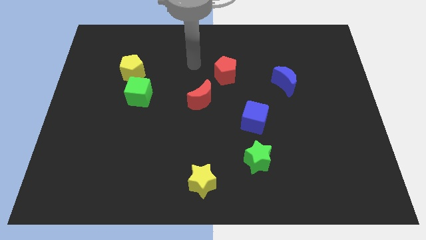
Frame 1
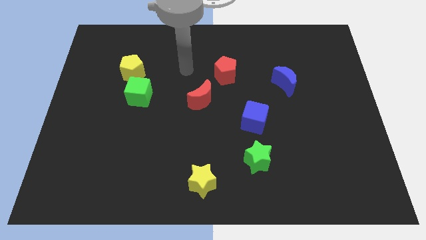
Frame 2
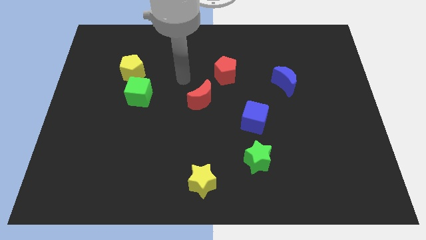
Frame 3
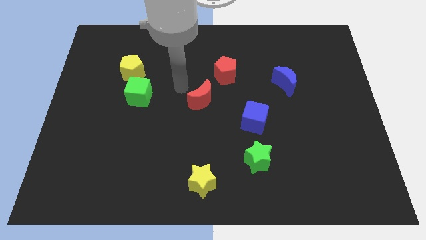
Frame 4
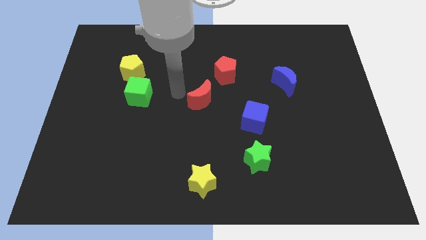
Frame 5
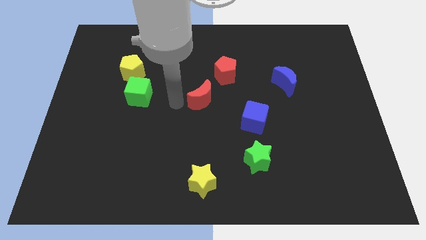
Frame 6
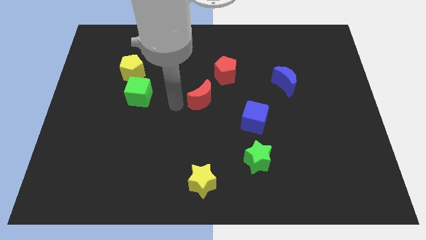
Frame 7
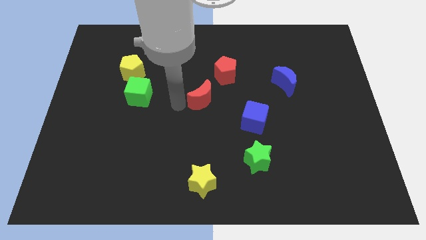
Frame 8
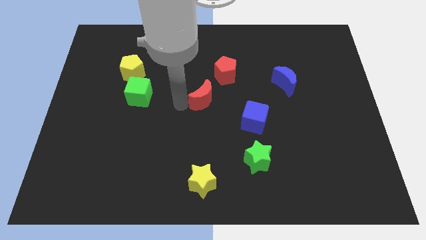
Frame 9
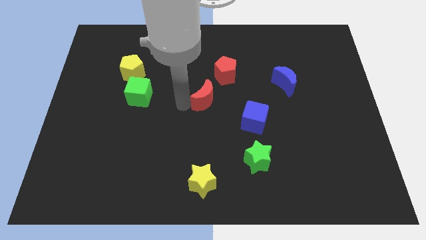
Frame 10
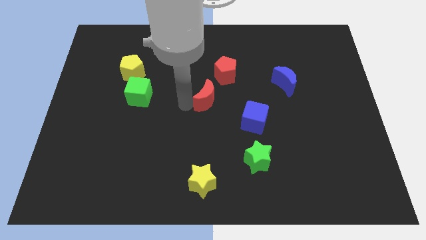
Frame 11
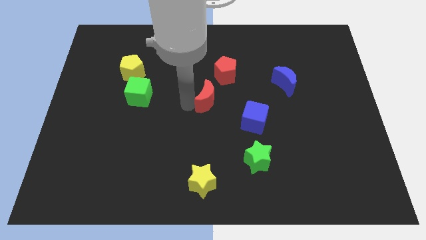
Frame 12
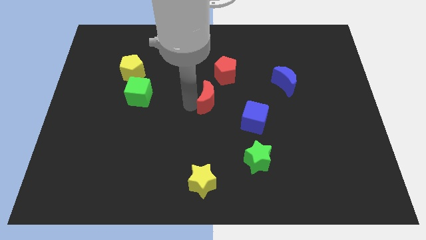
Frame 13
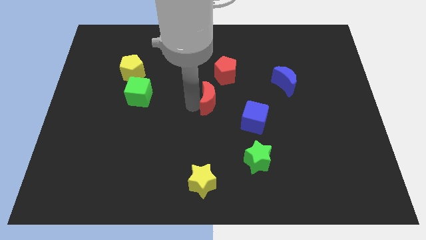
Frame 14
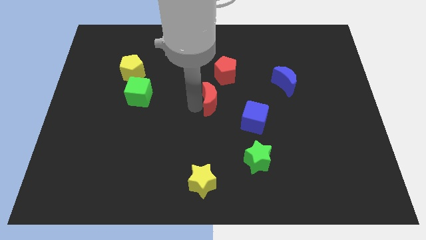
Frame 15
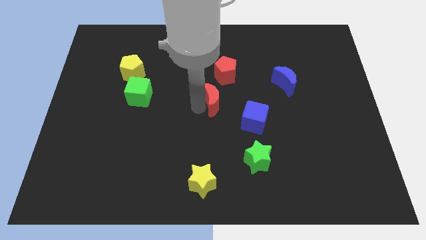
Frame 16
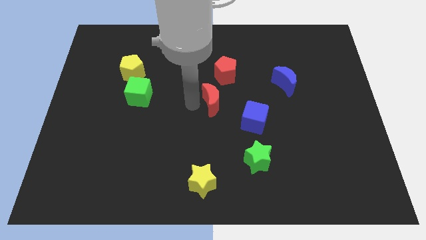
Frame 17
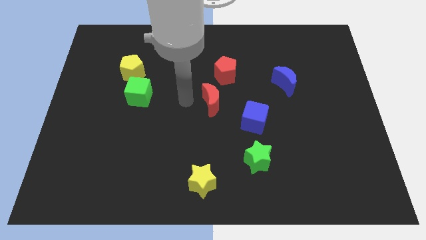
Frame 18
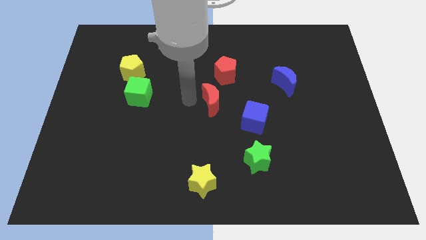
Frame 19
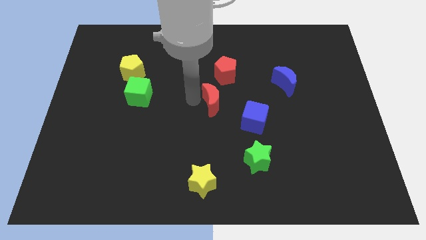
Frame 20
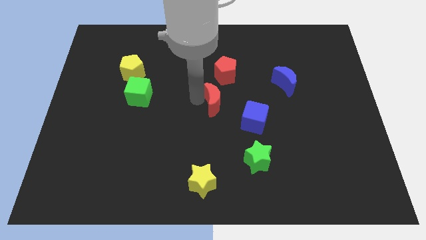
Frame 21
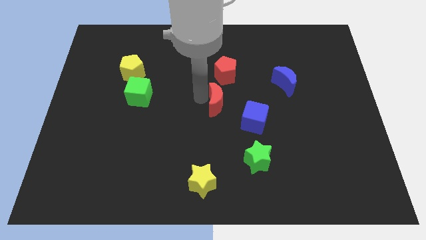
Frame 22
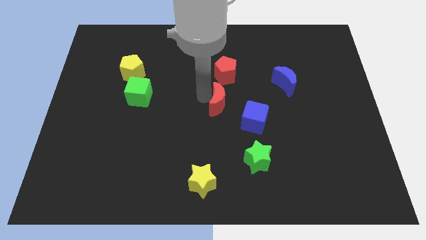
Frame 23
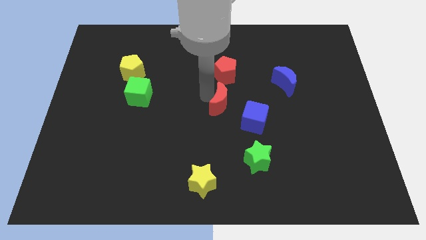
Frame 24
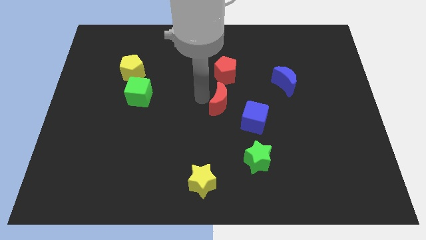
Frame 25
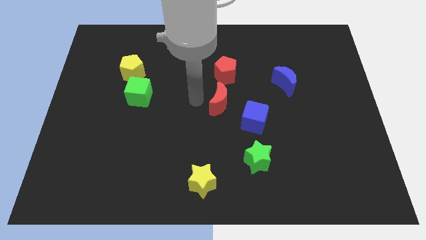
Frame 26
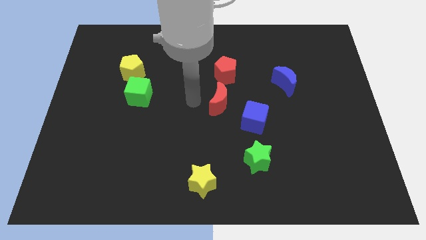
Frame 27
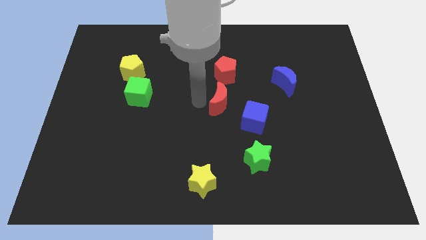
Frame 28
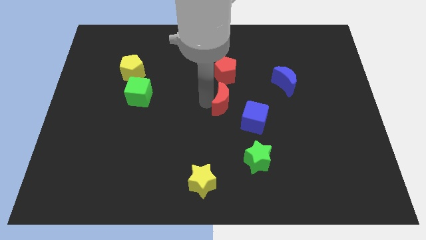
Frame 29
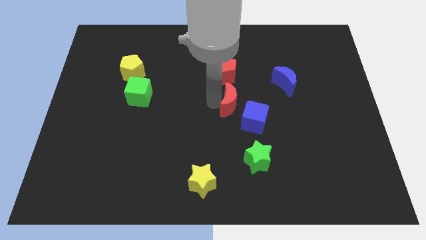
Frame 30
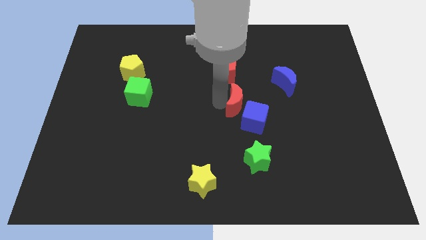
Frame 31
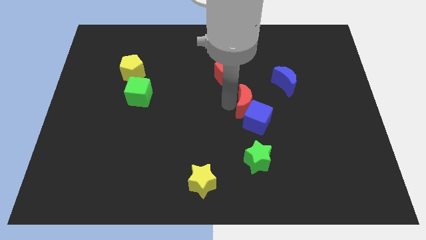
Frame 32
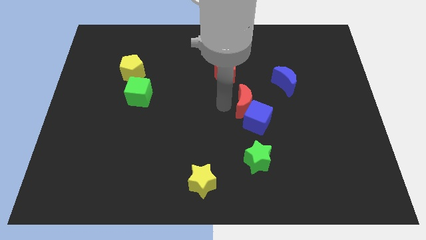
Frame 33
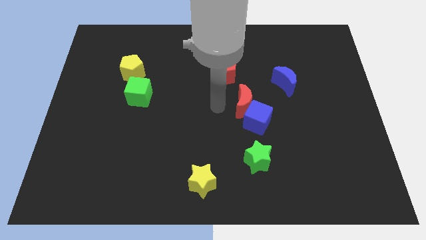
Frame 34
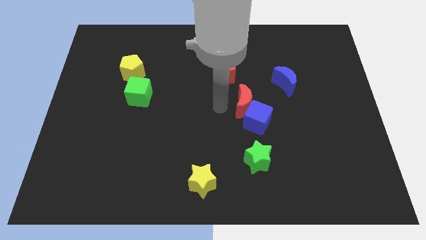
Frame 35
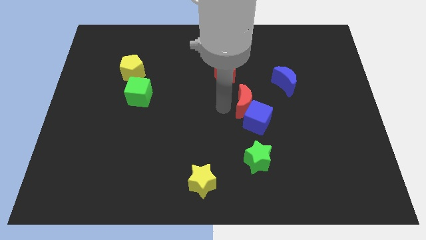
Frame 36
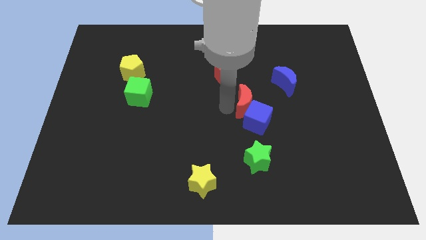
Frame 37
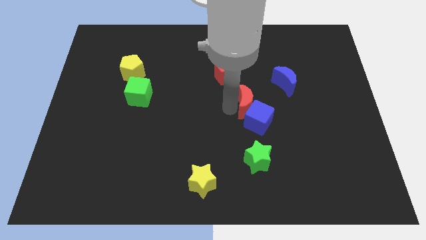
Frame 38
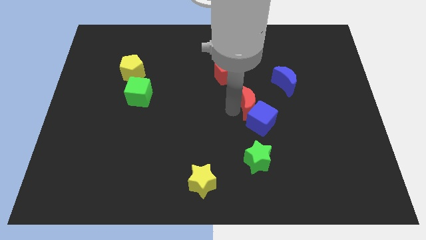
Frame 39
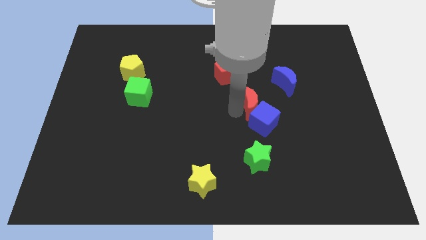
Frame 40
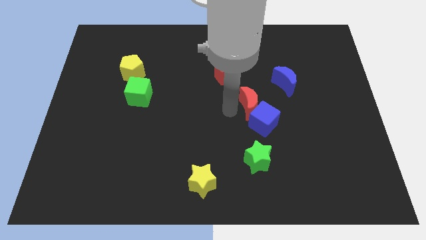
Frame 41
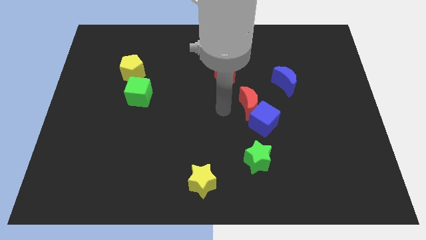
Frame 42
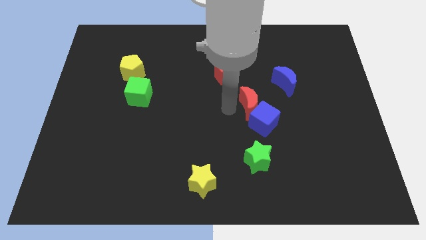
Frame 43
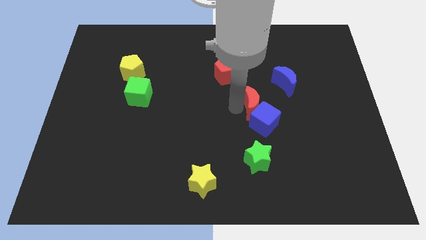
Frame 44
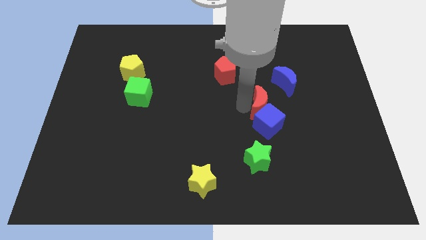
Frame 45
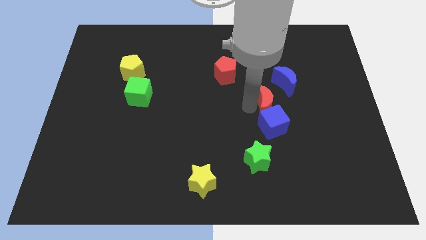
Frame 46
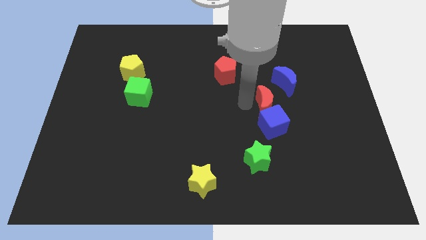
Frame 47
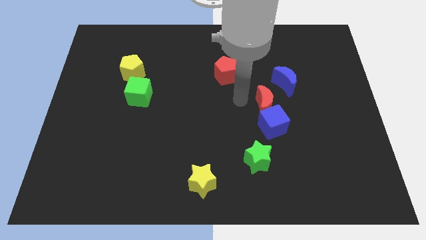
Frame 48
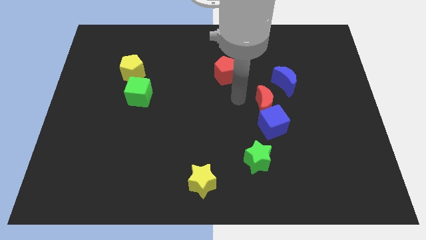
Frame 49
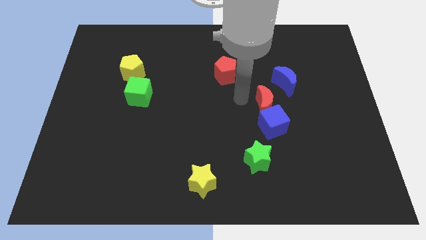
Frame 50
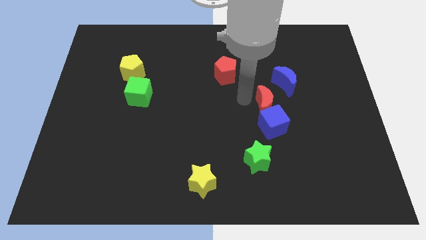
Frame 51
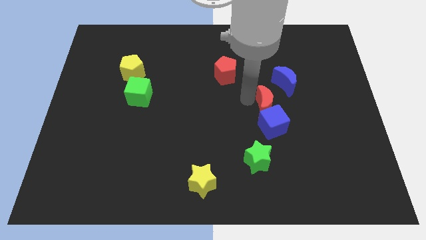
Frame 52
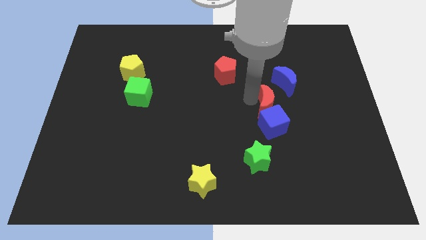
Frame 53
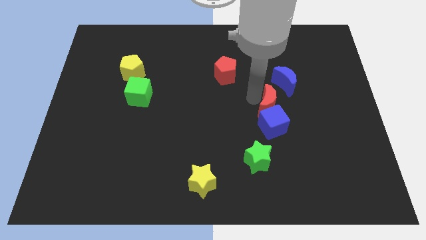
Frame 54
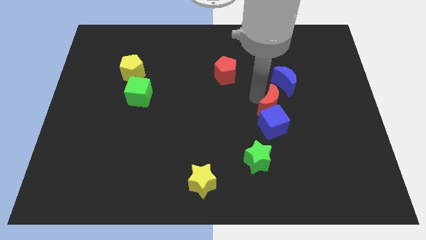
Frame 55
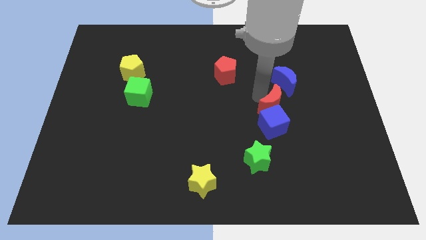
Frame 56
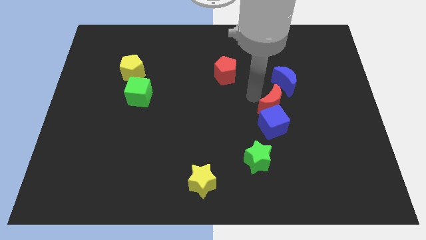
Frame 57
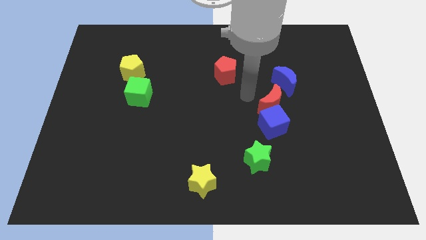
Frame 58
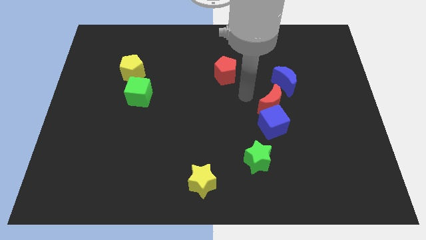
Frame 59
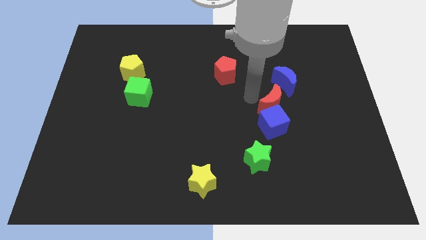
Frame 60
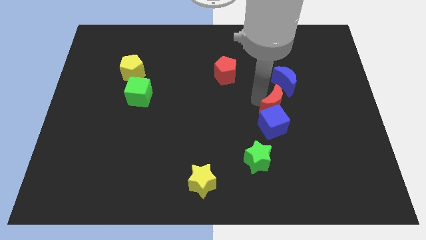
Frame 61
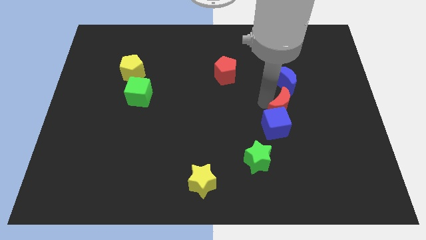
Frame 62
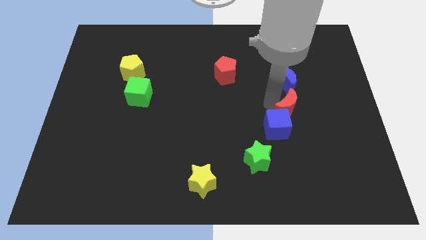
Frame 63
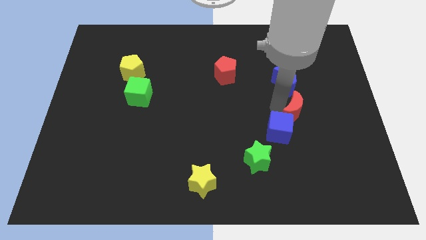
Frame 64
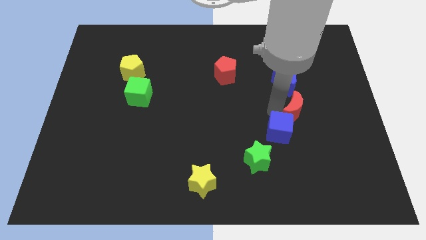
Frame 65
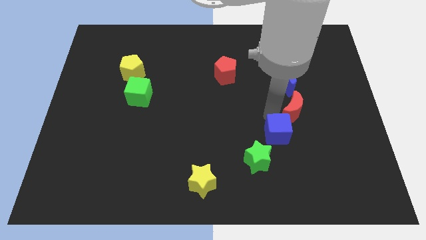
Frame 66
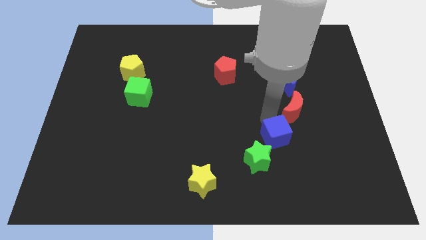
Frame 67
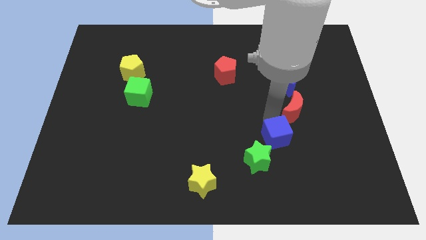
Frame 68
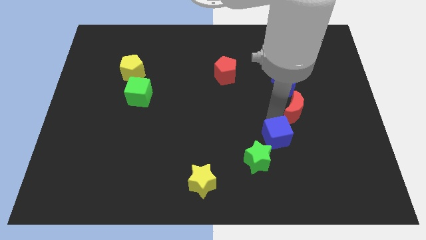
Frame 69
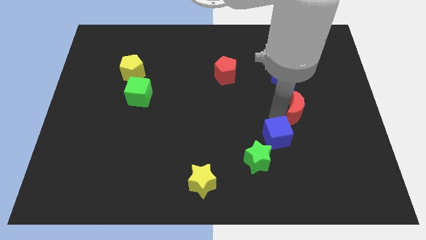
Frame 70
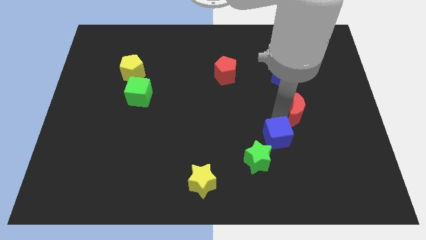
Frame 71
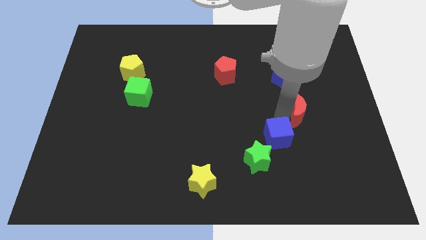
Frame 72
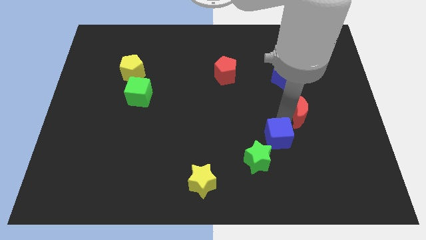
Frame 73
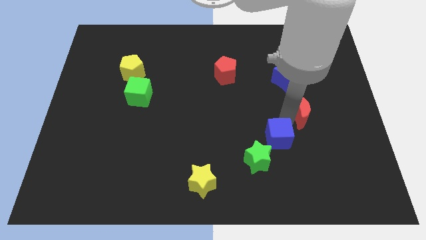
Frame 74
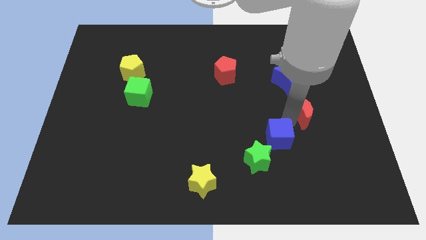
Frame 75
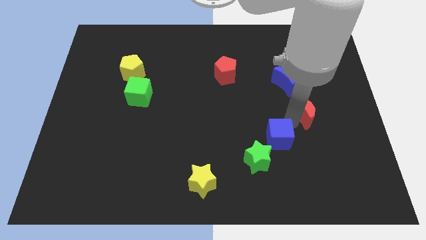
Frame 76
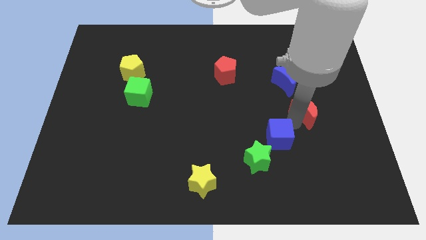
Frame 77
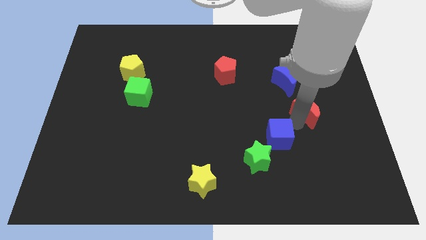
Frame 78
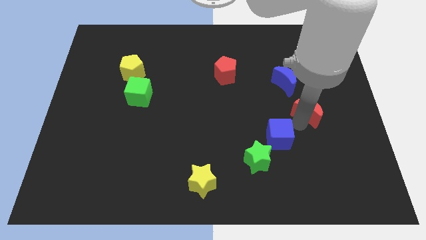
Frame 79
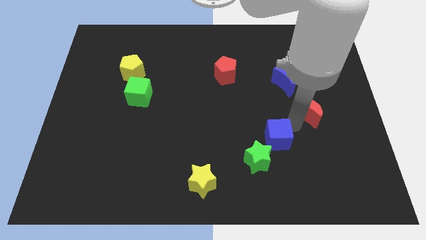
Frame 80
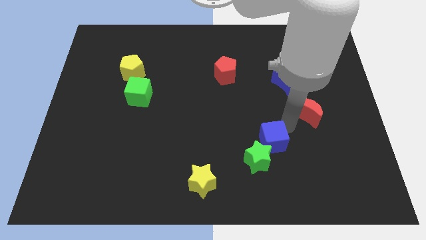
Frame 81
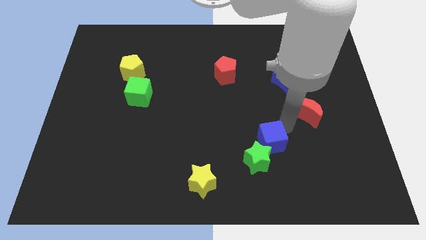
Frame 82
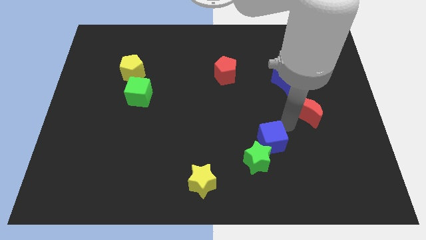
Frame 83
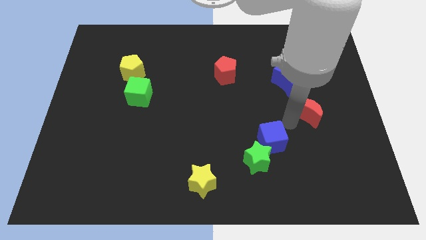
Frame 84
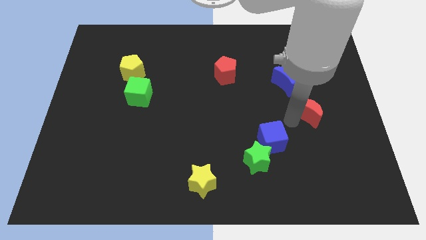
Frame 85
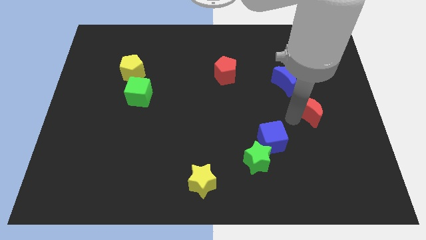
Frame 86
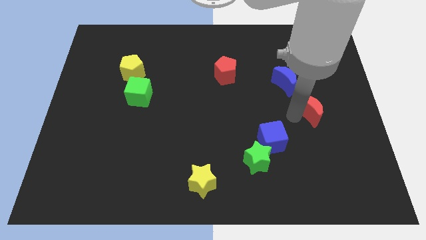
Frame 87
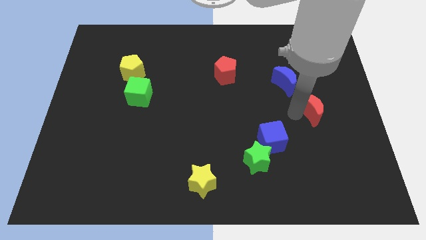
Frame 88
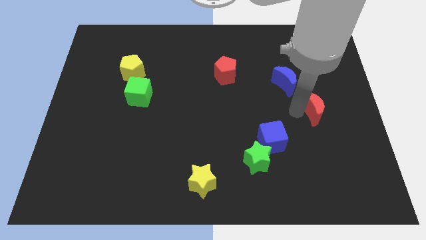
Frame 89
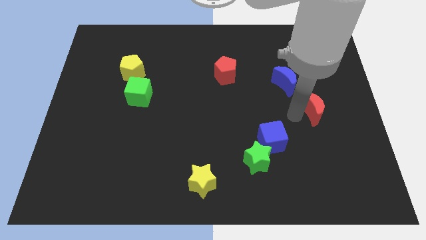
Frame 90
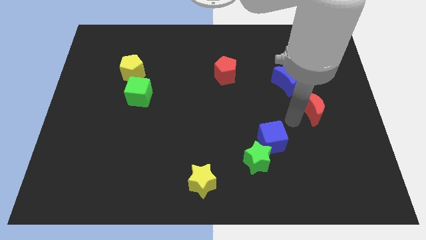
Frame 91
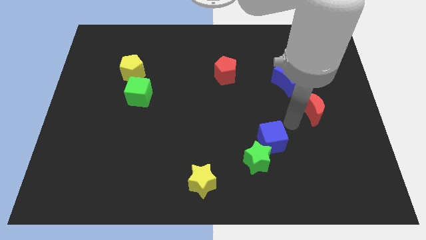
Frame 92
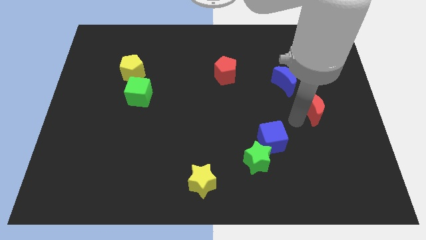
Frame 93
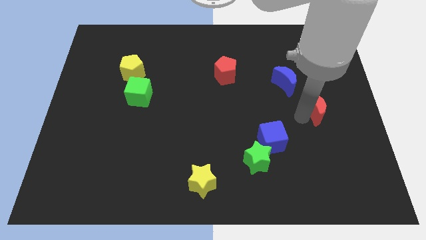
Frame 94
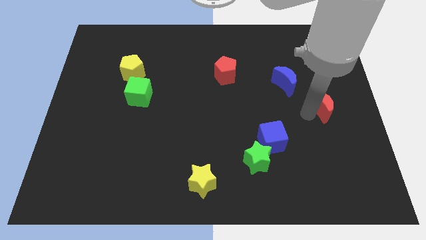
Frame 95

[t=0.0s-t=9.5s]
put the red moon to the center right
